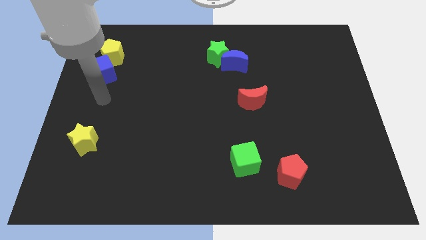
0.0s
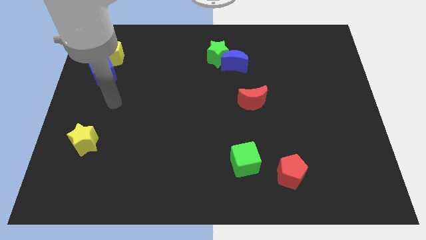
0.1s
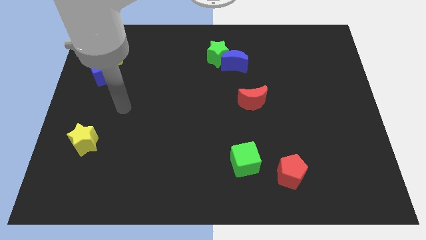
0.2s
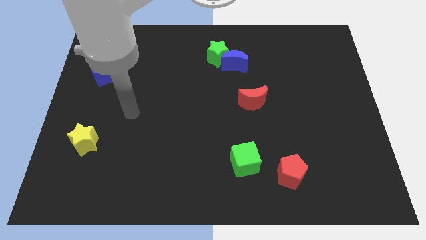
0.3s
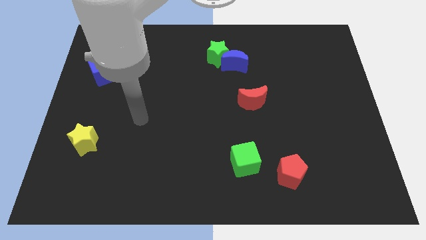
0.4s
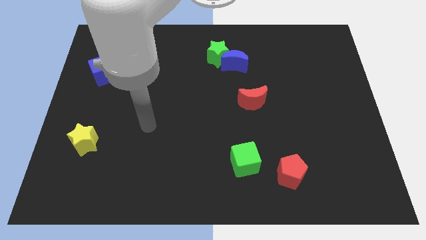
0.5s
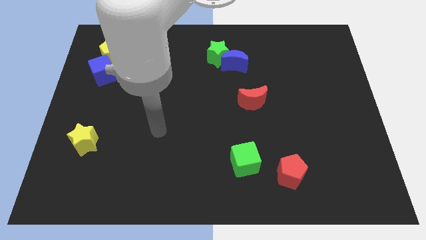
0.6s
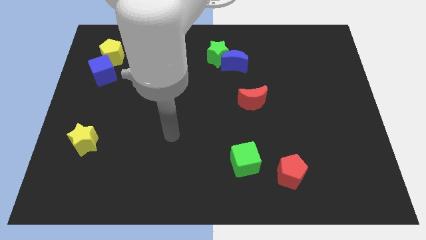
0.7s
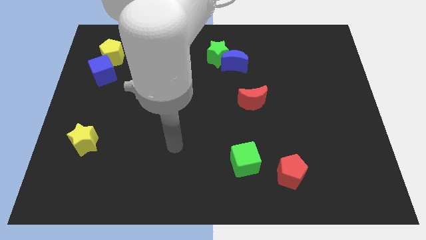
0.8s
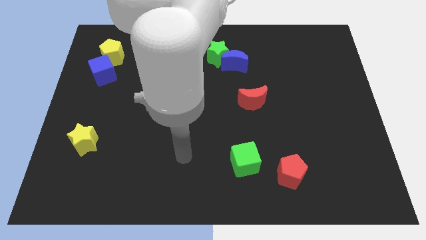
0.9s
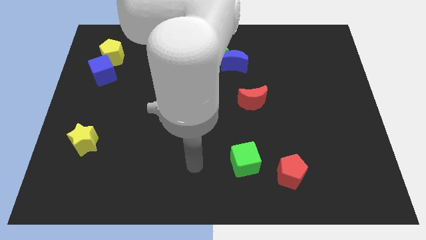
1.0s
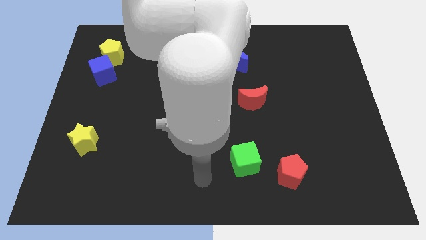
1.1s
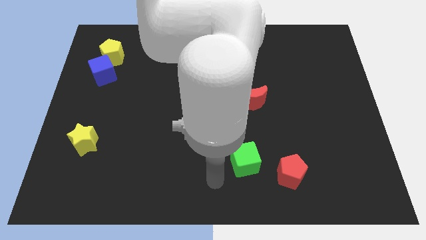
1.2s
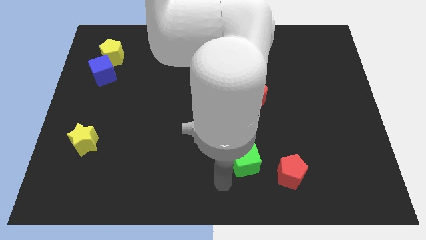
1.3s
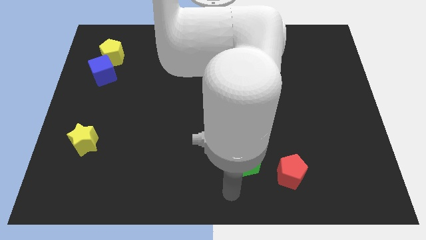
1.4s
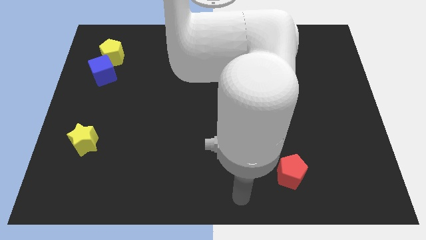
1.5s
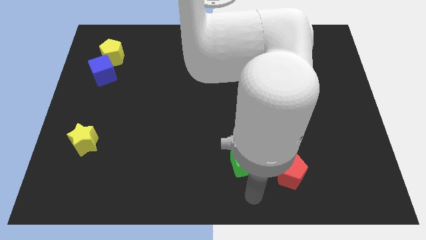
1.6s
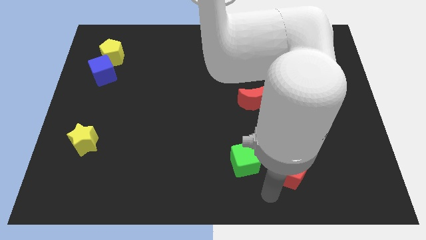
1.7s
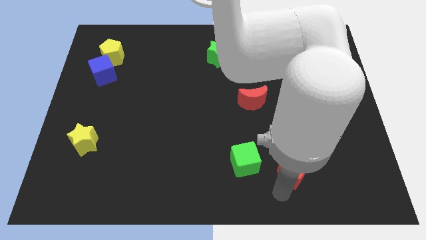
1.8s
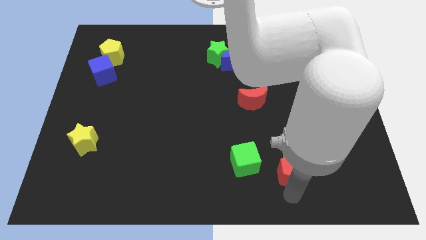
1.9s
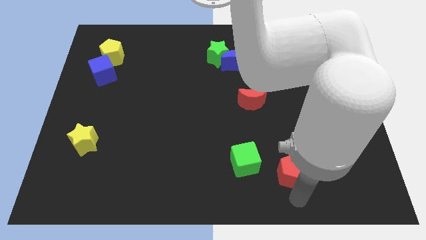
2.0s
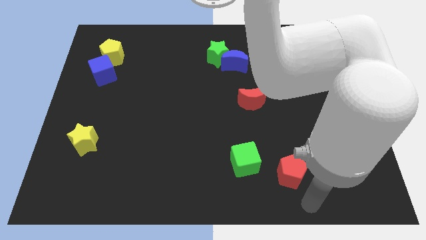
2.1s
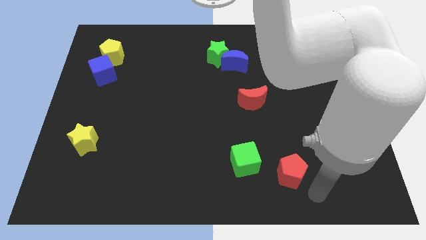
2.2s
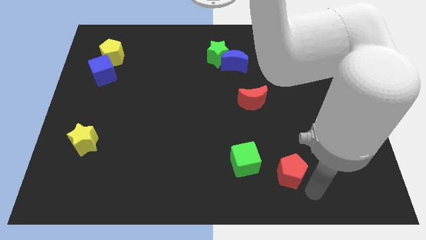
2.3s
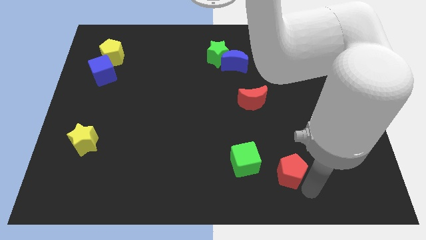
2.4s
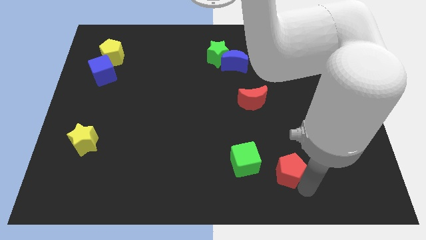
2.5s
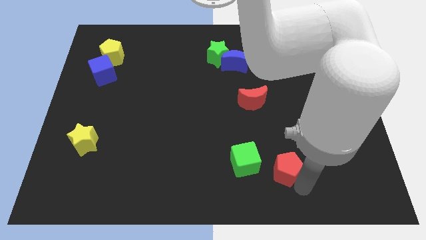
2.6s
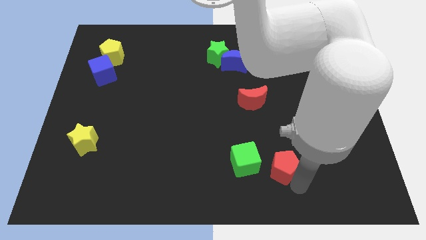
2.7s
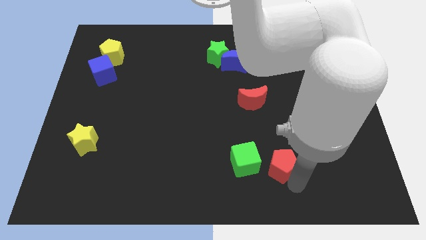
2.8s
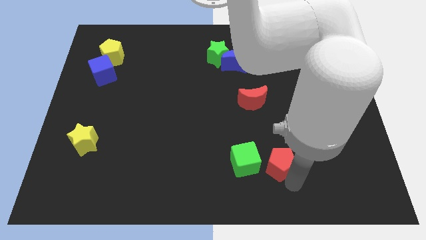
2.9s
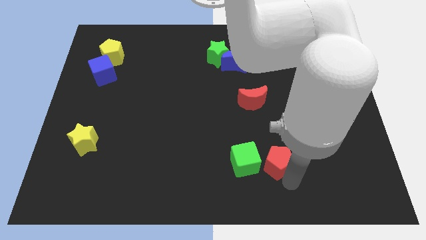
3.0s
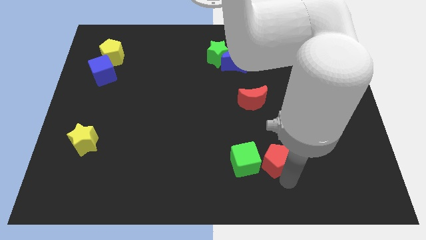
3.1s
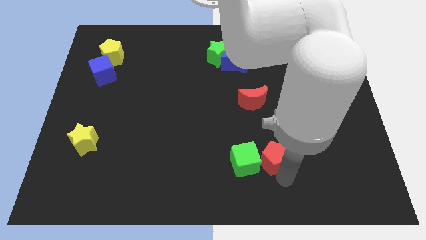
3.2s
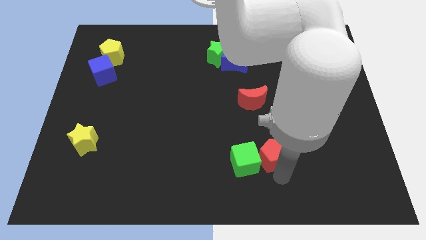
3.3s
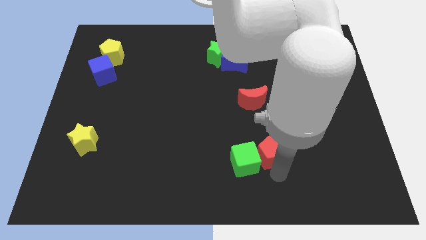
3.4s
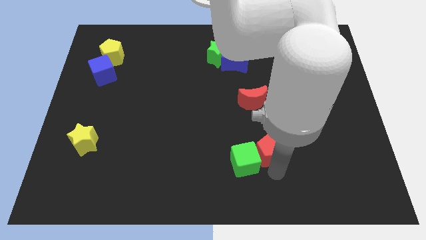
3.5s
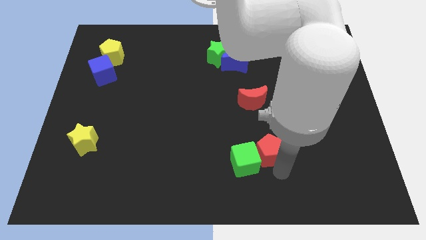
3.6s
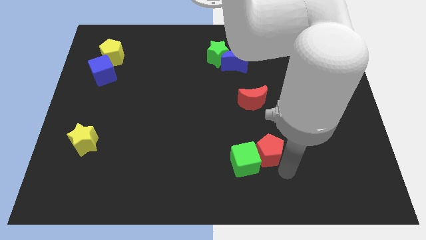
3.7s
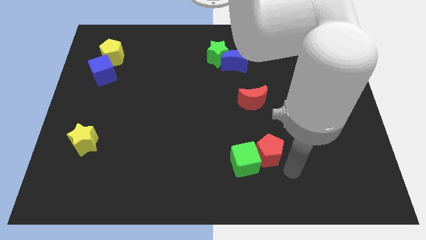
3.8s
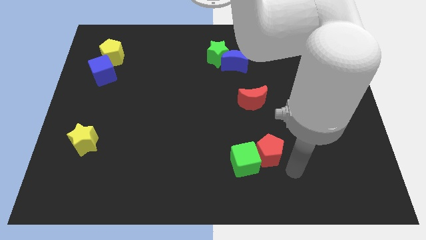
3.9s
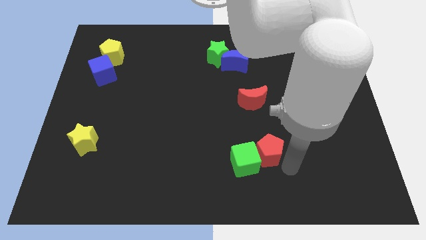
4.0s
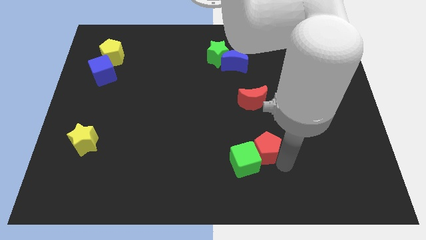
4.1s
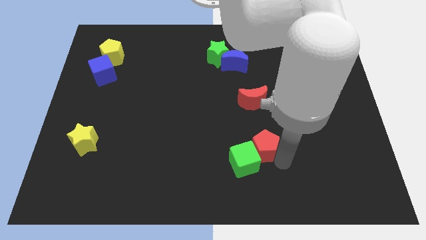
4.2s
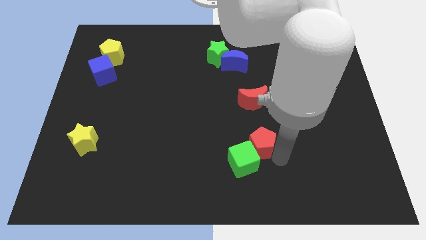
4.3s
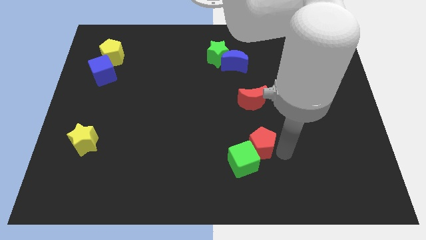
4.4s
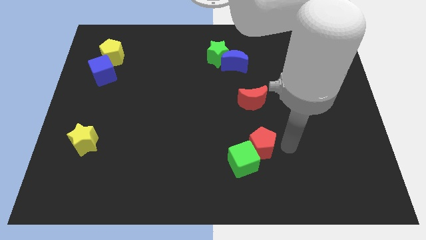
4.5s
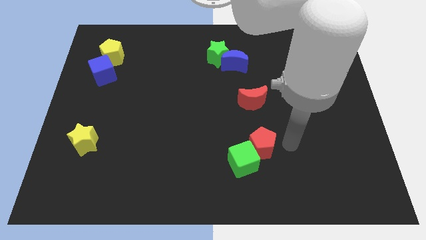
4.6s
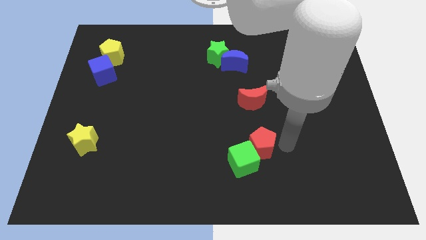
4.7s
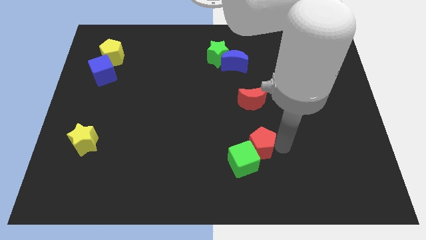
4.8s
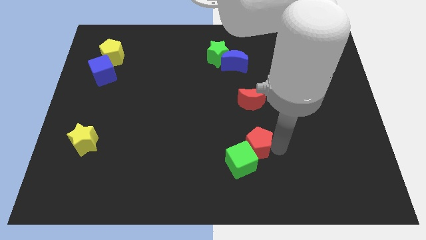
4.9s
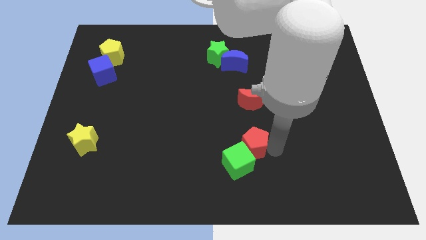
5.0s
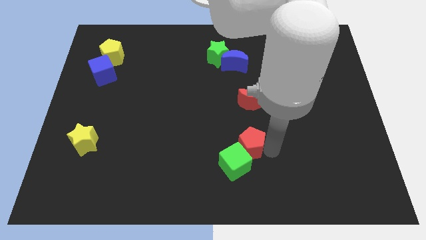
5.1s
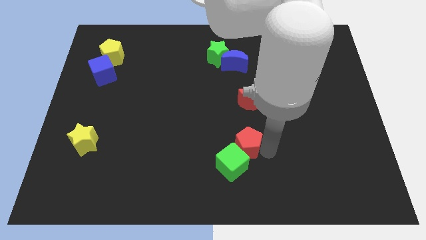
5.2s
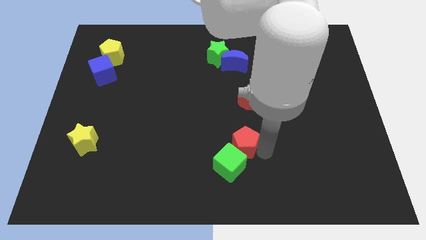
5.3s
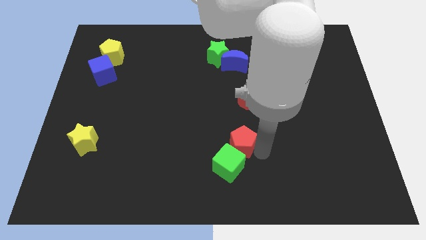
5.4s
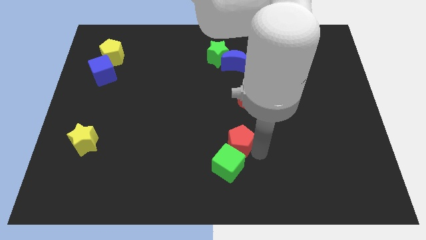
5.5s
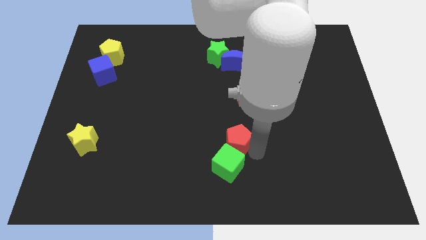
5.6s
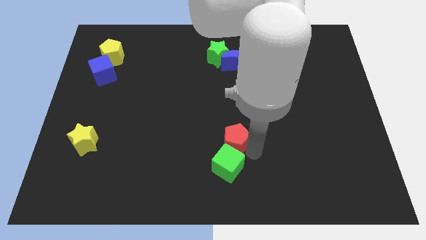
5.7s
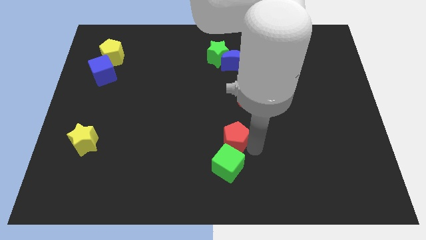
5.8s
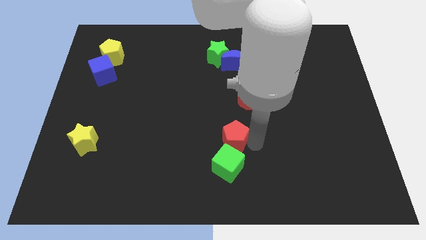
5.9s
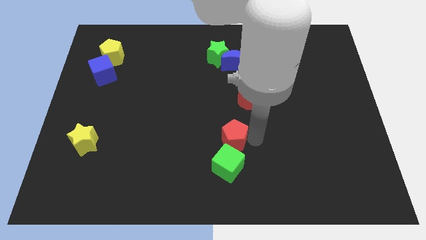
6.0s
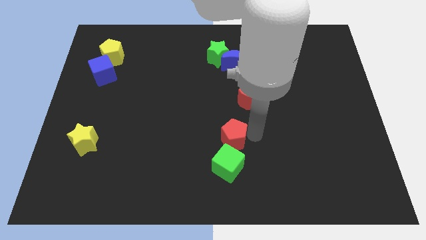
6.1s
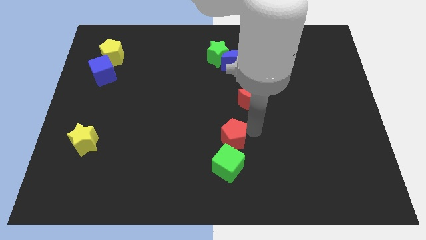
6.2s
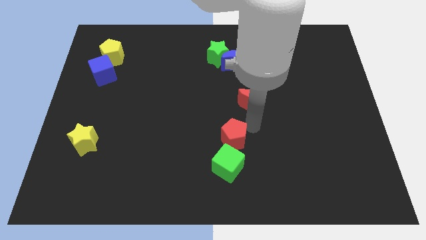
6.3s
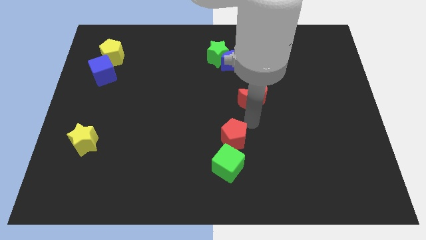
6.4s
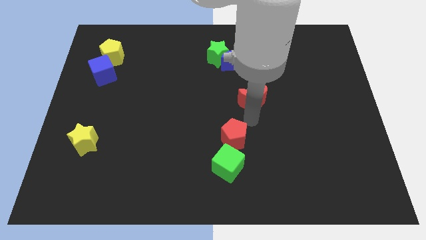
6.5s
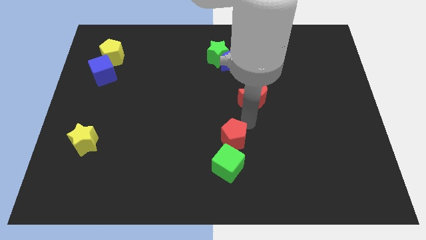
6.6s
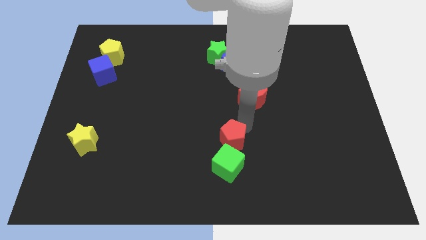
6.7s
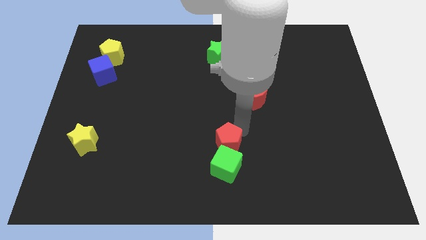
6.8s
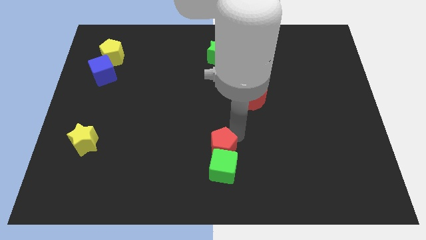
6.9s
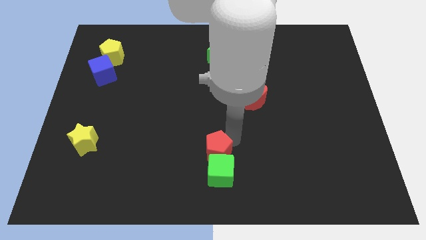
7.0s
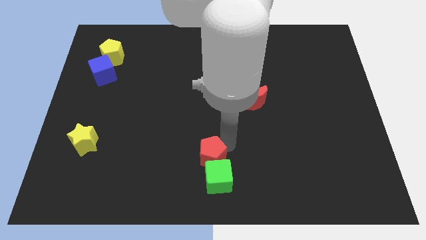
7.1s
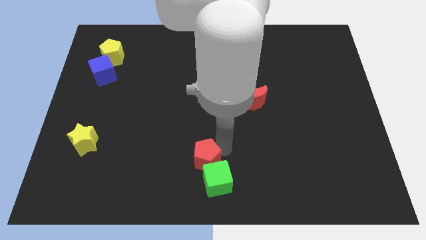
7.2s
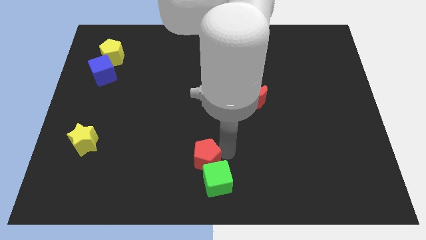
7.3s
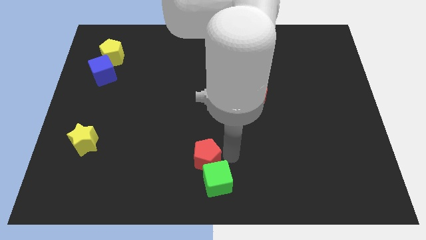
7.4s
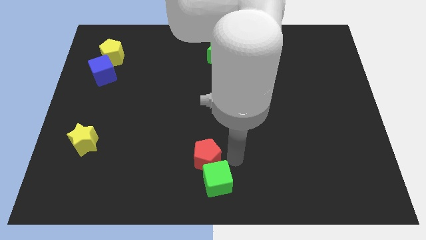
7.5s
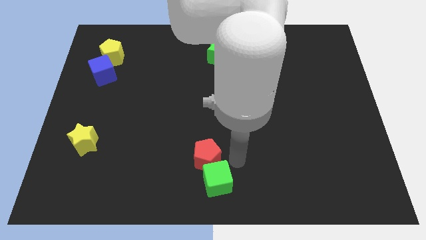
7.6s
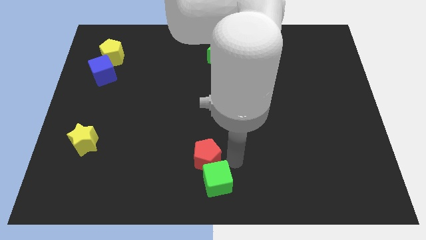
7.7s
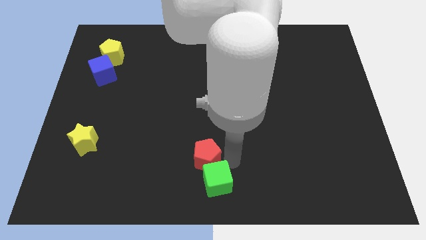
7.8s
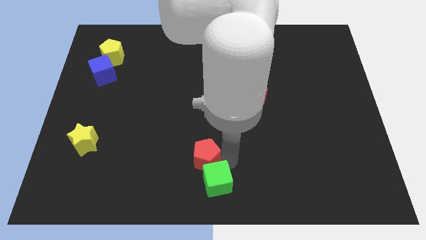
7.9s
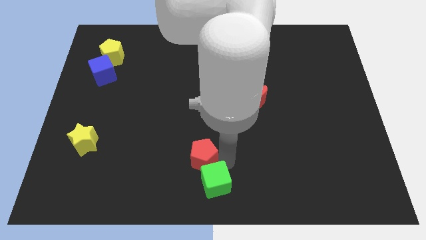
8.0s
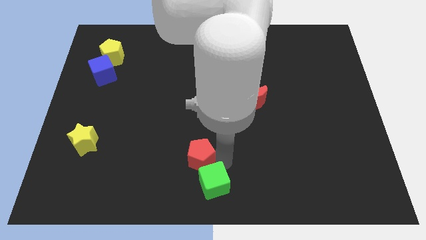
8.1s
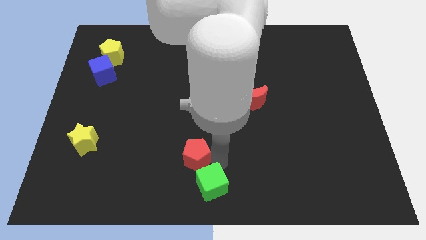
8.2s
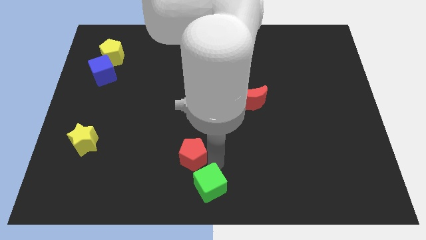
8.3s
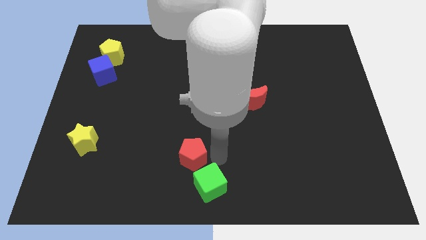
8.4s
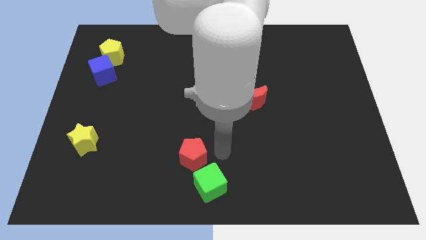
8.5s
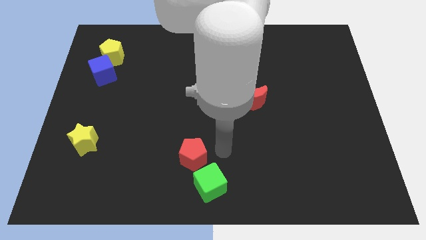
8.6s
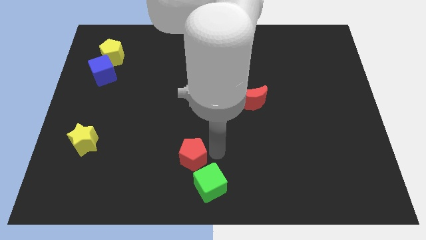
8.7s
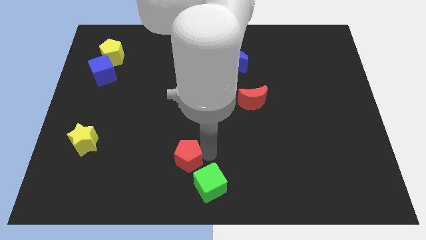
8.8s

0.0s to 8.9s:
slide the red pentagon to the left
